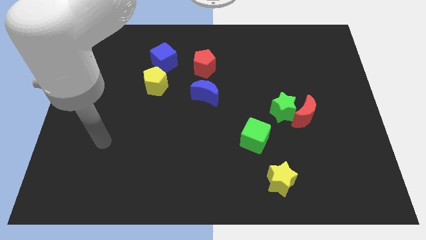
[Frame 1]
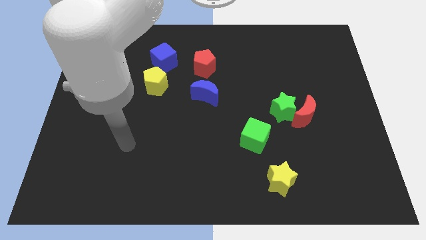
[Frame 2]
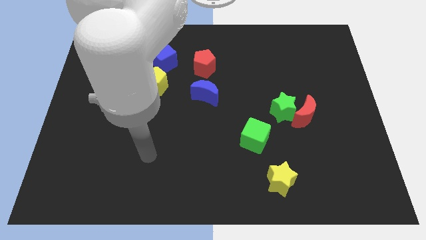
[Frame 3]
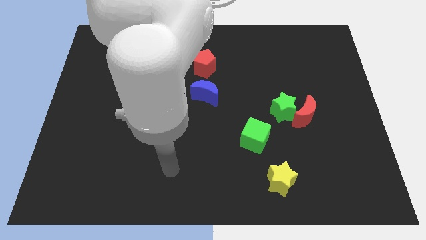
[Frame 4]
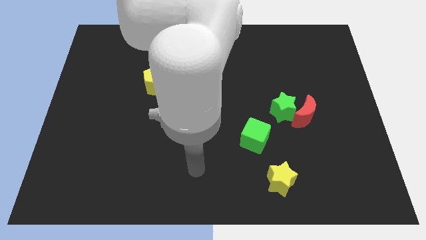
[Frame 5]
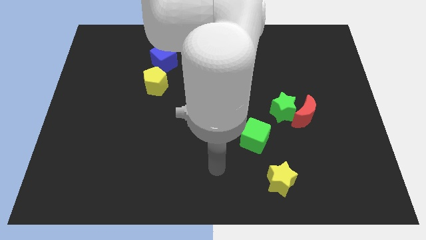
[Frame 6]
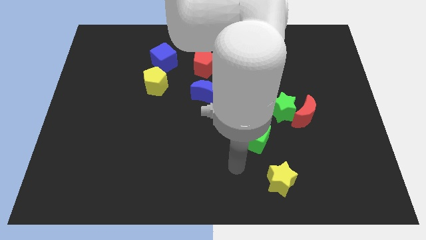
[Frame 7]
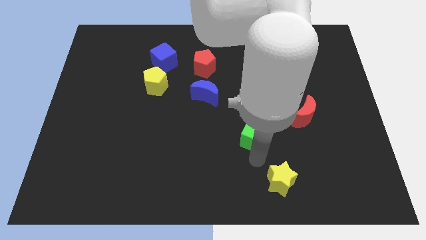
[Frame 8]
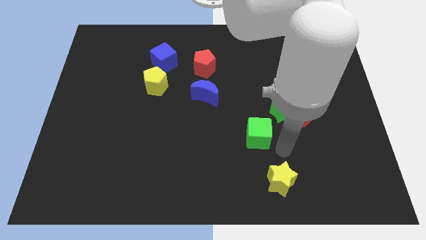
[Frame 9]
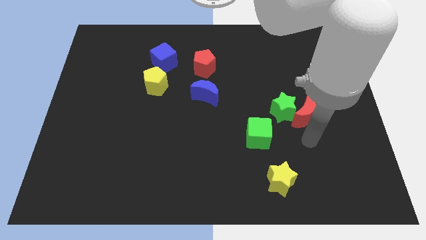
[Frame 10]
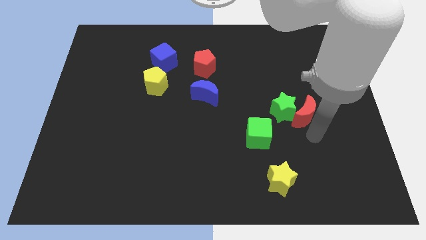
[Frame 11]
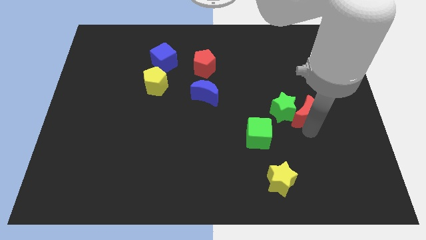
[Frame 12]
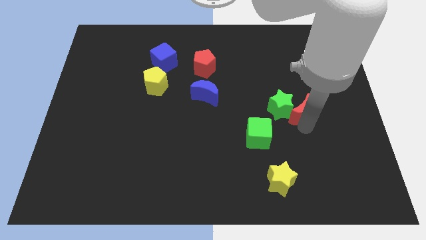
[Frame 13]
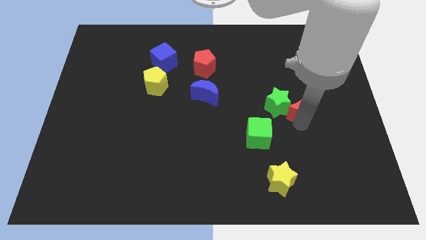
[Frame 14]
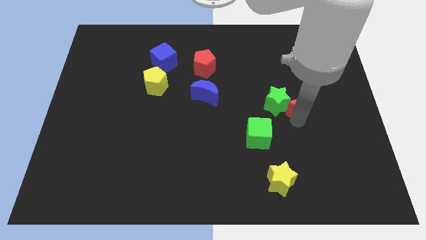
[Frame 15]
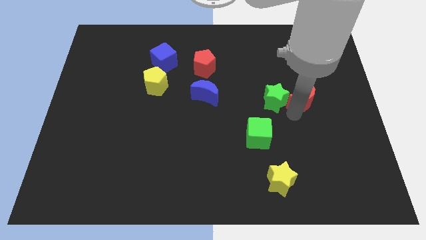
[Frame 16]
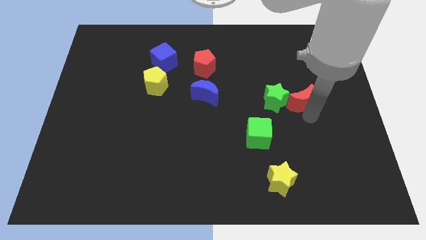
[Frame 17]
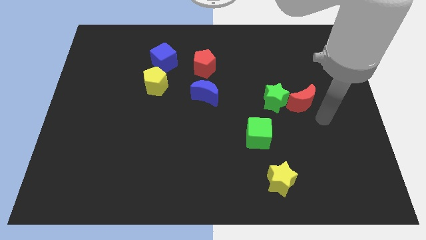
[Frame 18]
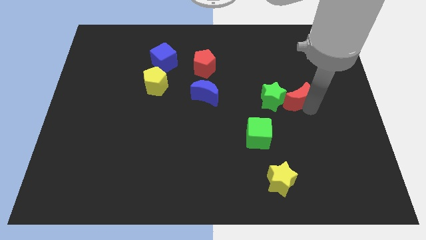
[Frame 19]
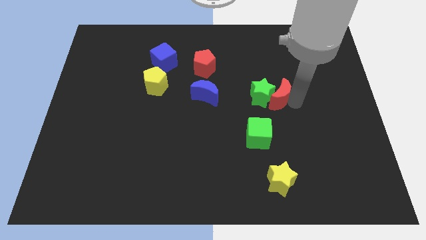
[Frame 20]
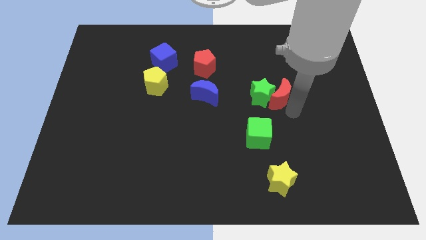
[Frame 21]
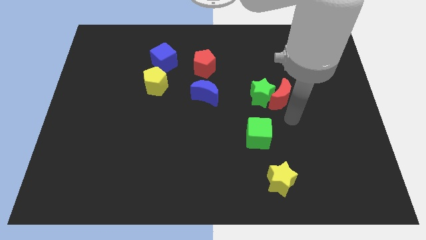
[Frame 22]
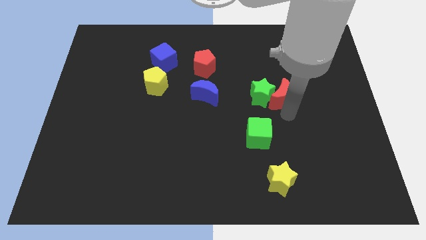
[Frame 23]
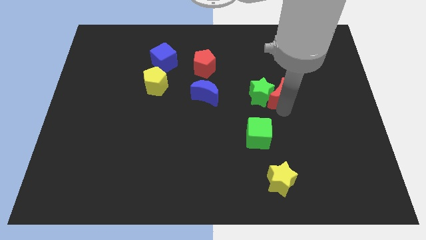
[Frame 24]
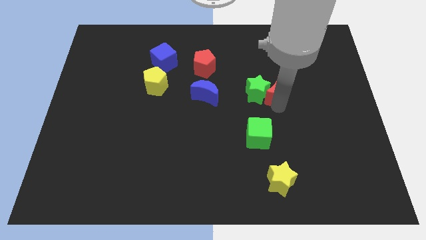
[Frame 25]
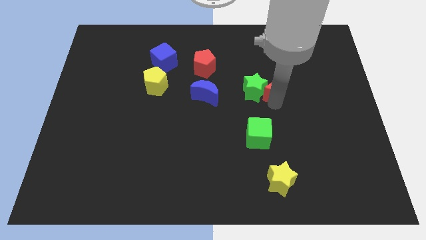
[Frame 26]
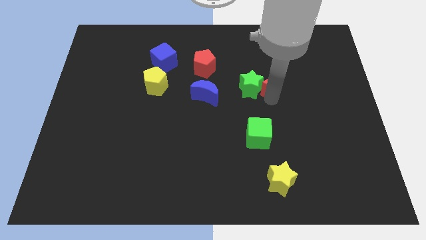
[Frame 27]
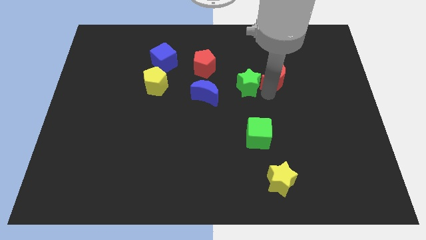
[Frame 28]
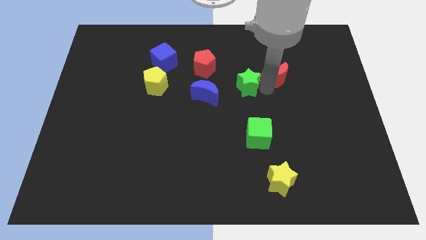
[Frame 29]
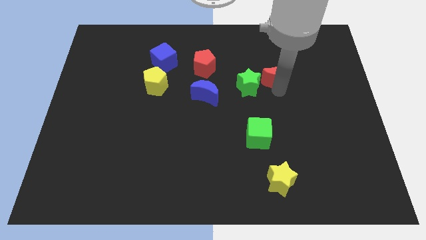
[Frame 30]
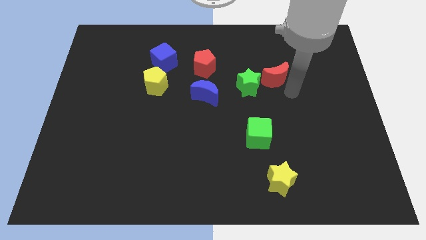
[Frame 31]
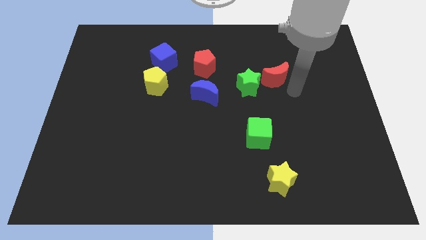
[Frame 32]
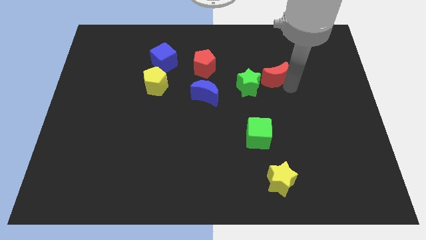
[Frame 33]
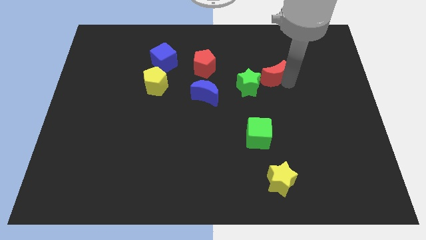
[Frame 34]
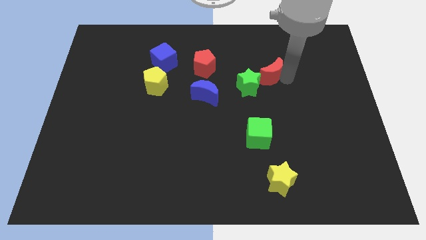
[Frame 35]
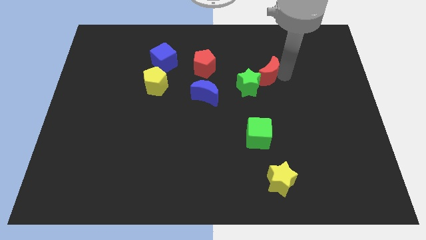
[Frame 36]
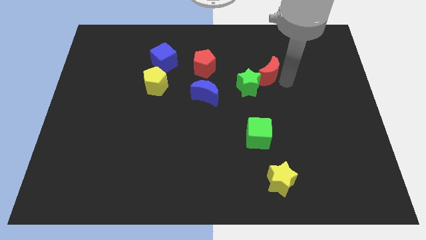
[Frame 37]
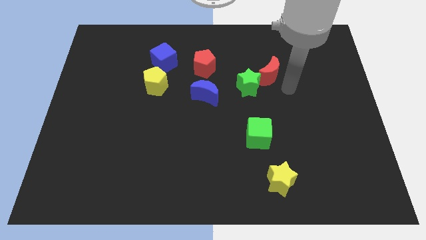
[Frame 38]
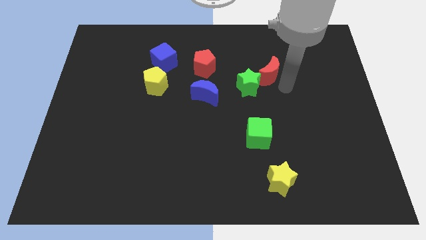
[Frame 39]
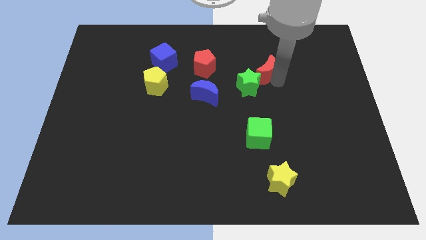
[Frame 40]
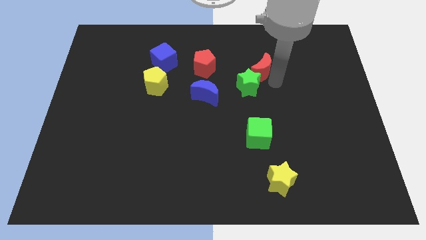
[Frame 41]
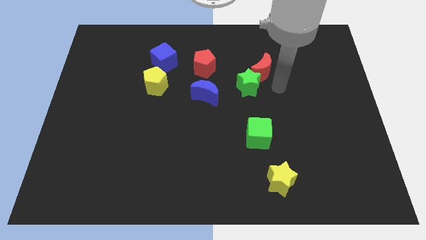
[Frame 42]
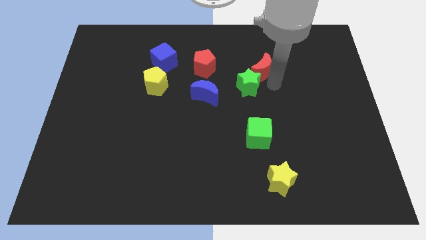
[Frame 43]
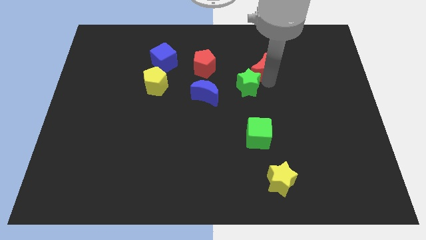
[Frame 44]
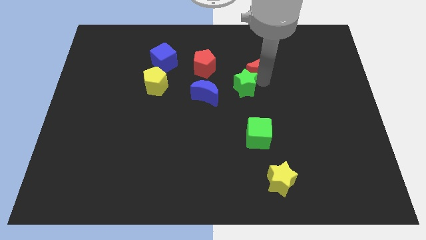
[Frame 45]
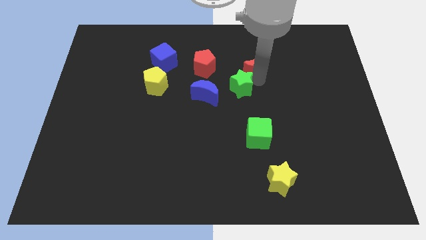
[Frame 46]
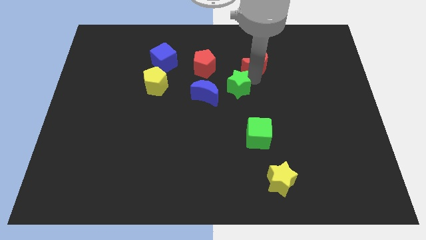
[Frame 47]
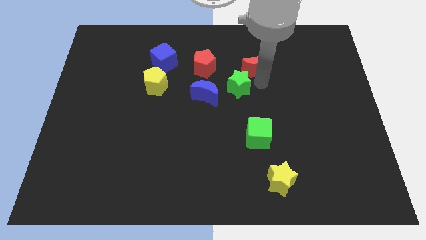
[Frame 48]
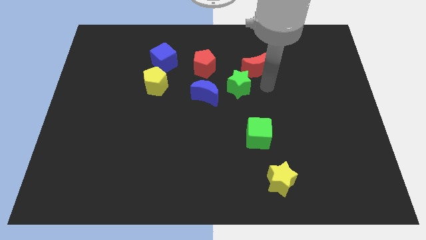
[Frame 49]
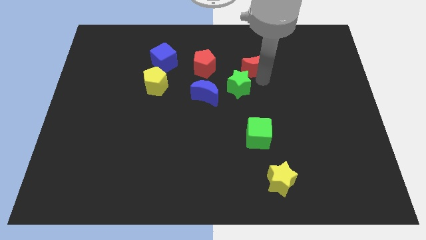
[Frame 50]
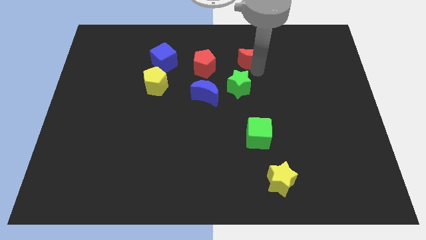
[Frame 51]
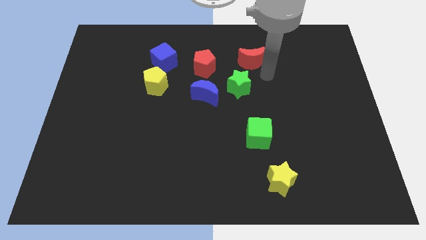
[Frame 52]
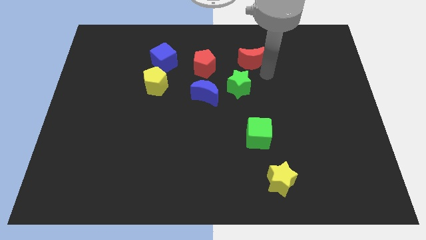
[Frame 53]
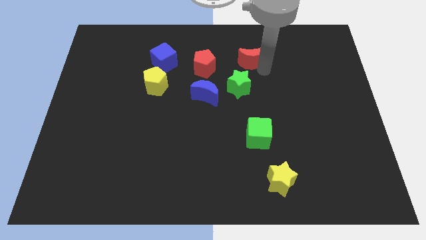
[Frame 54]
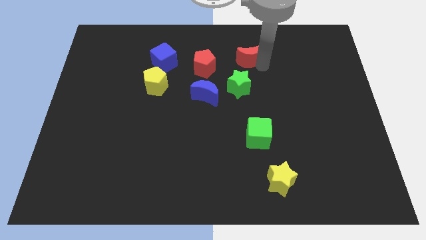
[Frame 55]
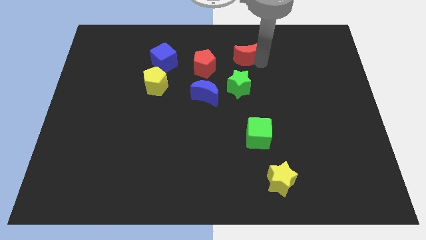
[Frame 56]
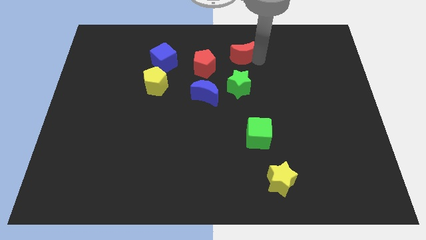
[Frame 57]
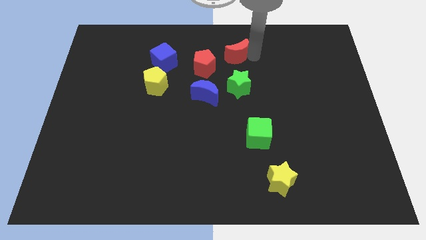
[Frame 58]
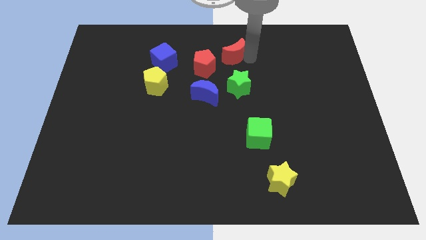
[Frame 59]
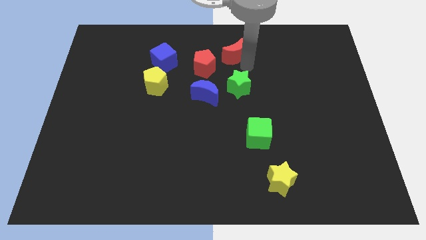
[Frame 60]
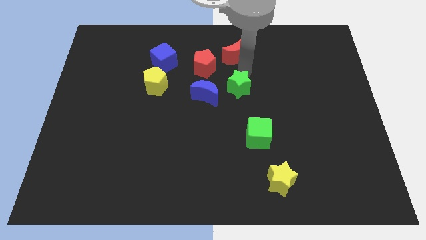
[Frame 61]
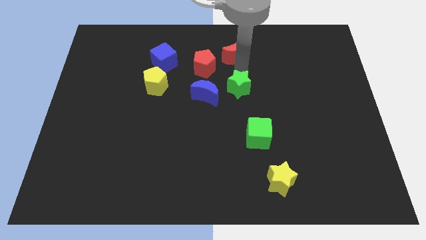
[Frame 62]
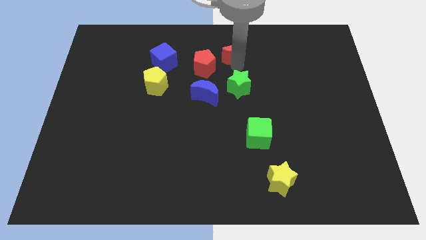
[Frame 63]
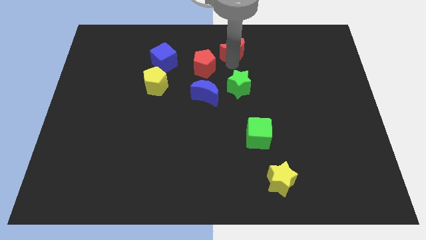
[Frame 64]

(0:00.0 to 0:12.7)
move the red moon to the top
